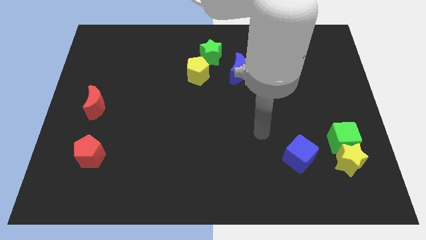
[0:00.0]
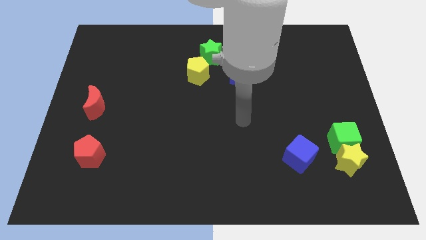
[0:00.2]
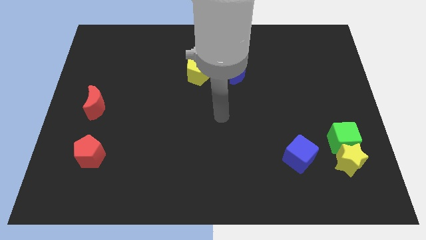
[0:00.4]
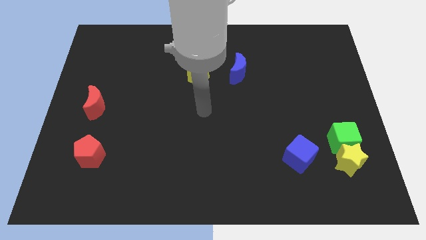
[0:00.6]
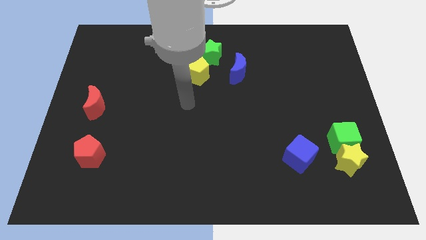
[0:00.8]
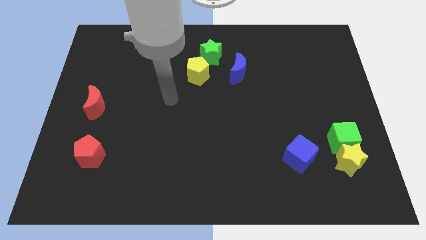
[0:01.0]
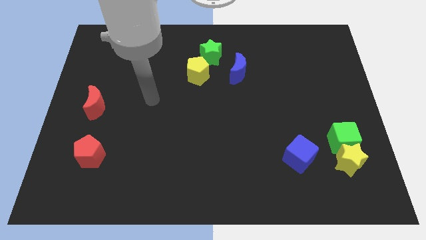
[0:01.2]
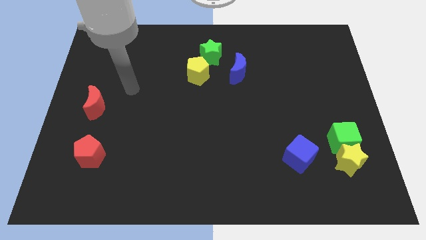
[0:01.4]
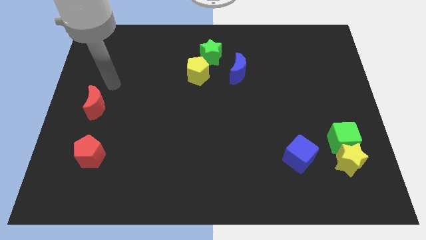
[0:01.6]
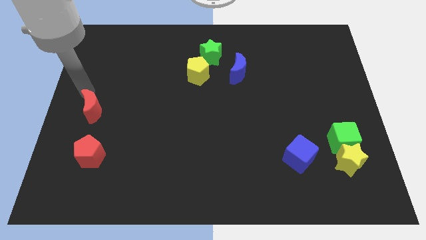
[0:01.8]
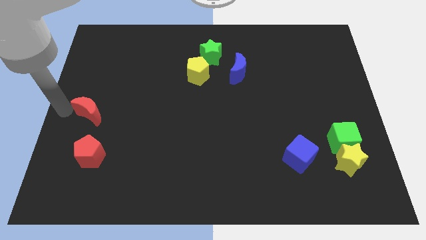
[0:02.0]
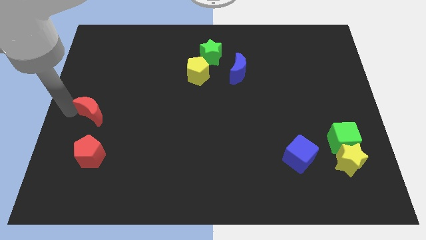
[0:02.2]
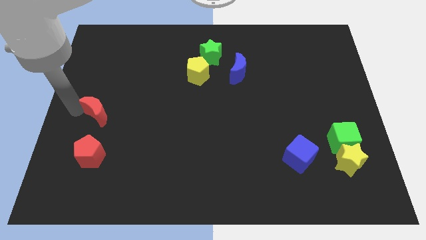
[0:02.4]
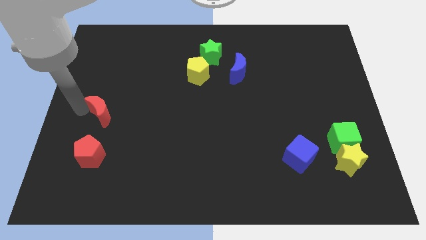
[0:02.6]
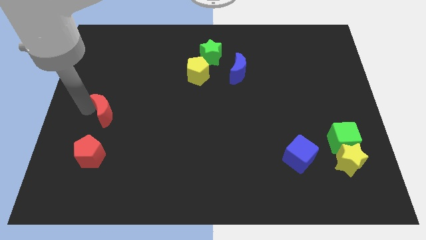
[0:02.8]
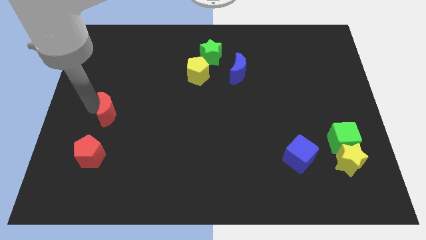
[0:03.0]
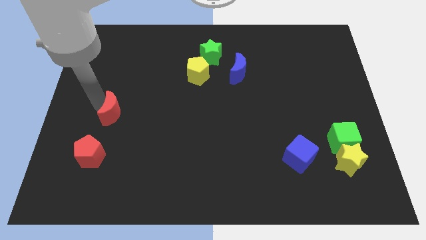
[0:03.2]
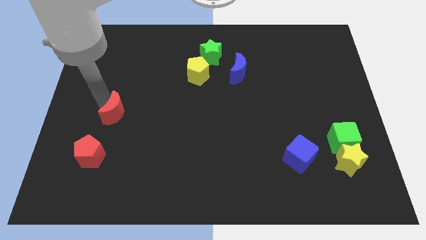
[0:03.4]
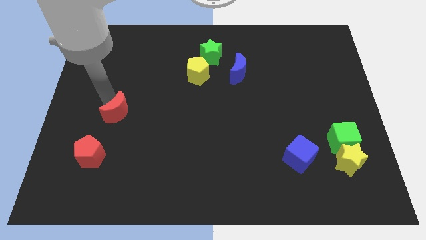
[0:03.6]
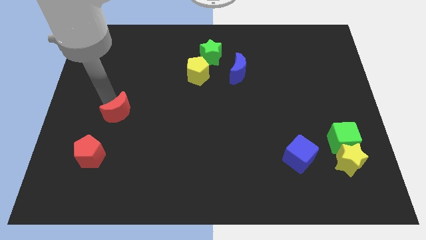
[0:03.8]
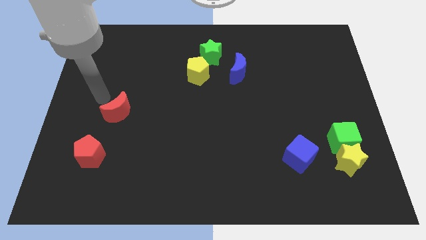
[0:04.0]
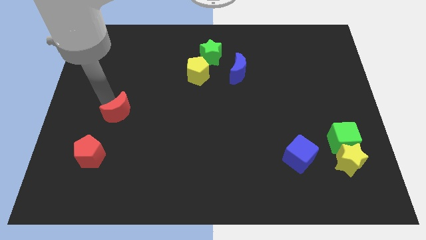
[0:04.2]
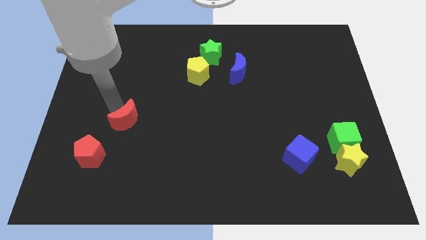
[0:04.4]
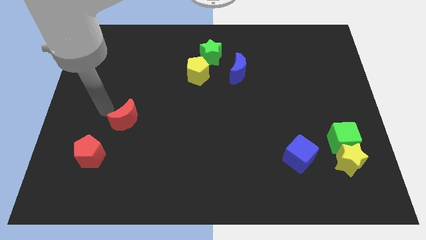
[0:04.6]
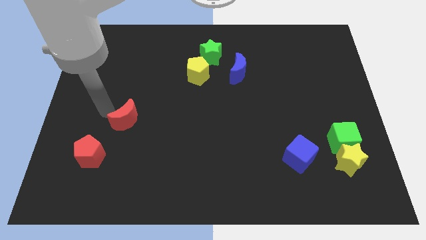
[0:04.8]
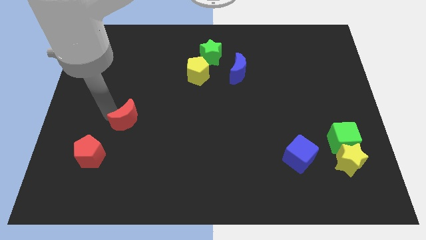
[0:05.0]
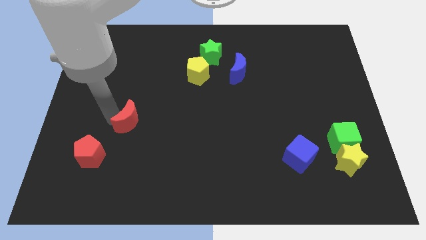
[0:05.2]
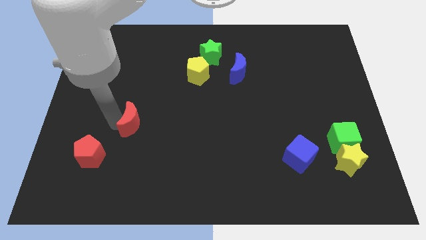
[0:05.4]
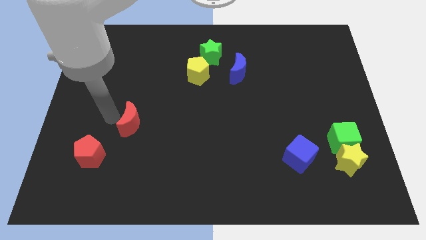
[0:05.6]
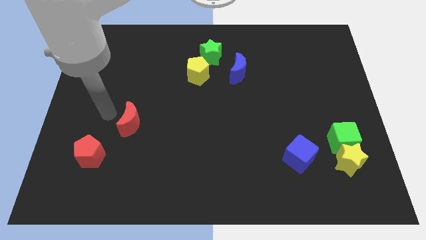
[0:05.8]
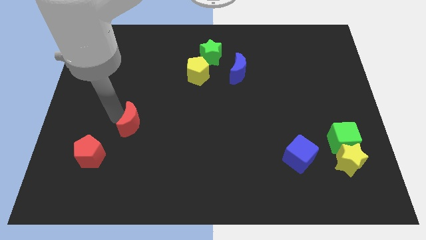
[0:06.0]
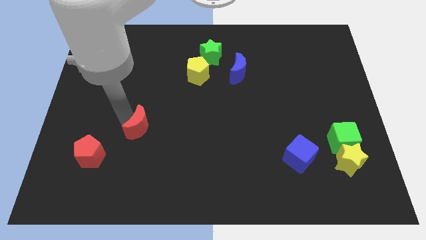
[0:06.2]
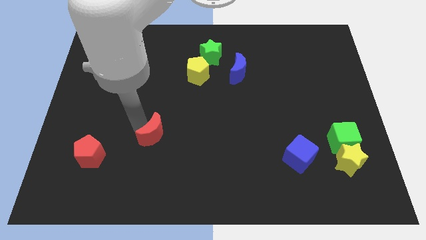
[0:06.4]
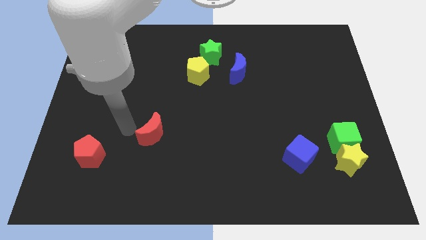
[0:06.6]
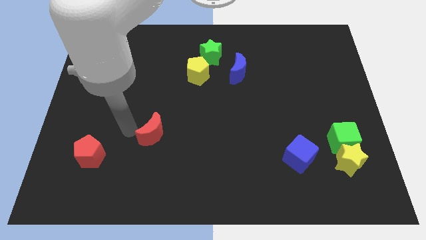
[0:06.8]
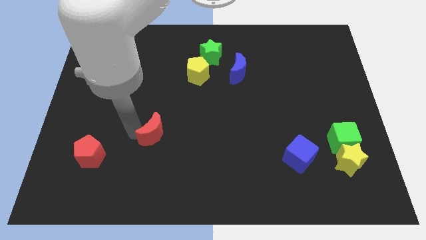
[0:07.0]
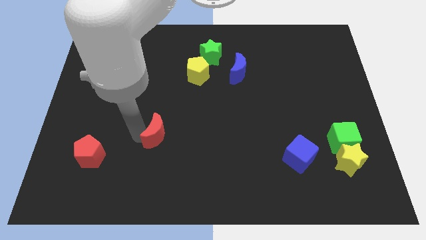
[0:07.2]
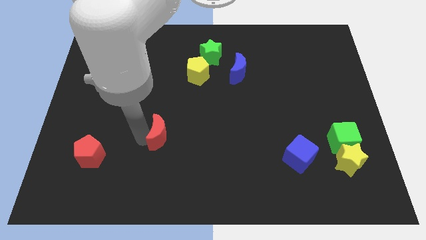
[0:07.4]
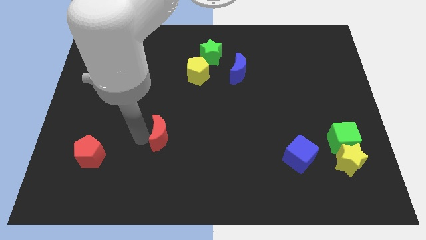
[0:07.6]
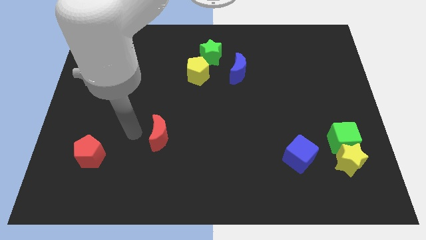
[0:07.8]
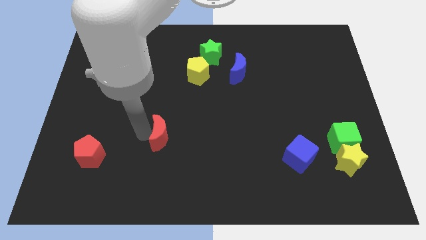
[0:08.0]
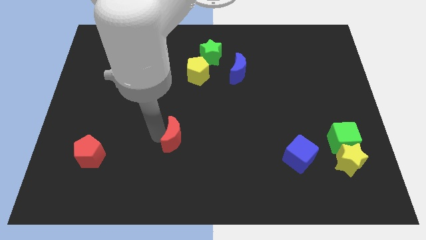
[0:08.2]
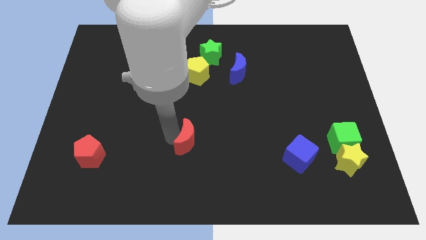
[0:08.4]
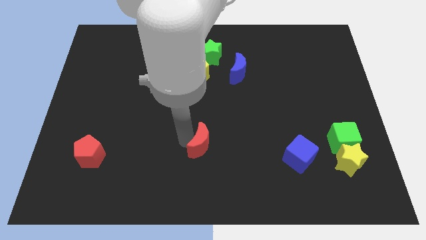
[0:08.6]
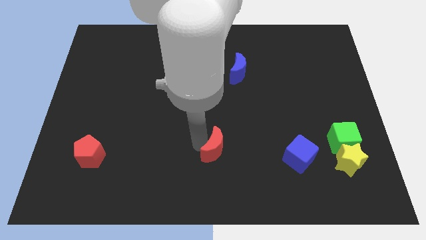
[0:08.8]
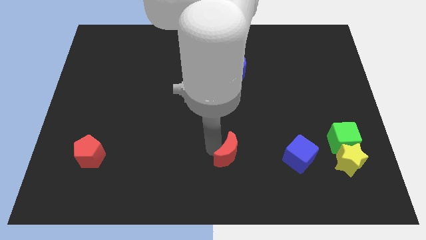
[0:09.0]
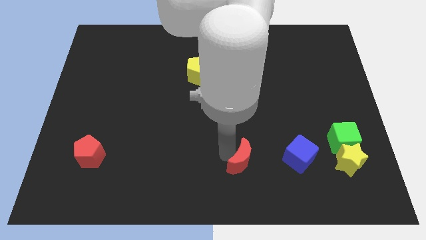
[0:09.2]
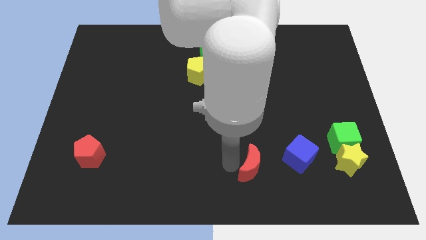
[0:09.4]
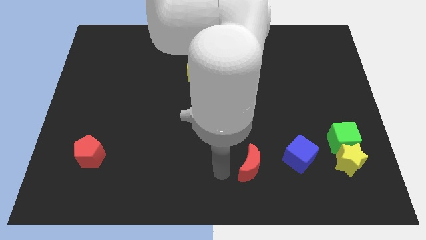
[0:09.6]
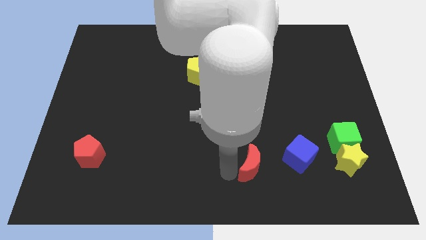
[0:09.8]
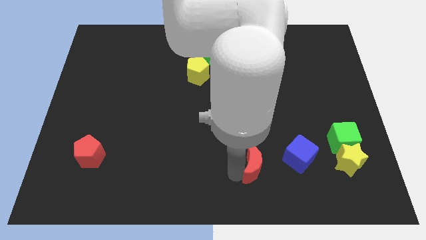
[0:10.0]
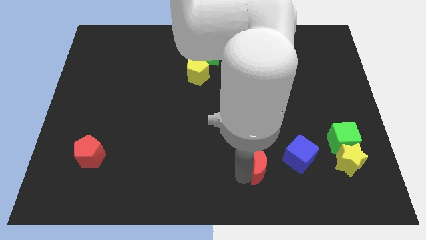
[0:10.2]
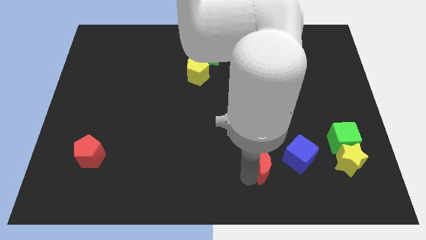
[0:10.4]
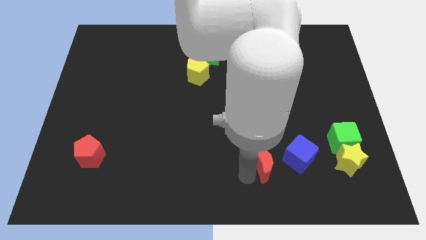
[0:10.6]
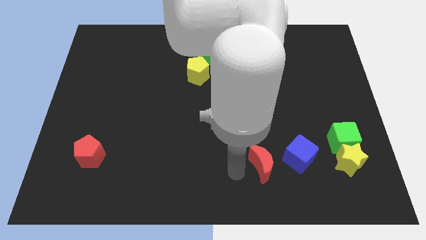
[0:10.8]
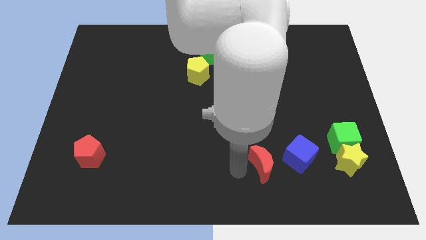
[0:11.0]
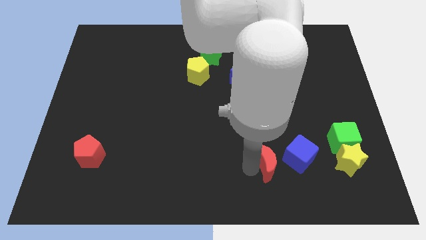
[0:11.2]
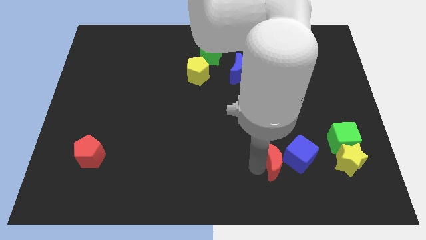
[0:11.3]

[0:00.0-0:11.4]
move the red moon to the left of the yellow star

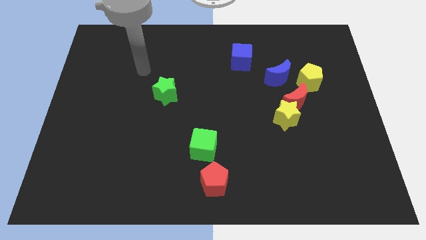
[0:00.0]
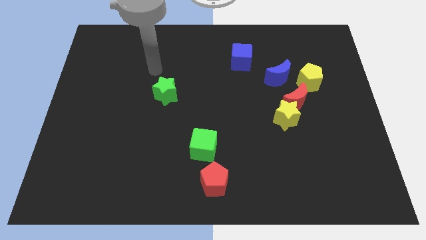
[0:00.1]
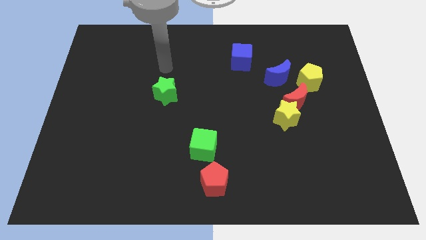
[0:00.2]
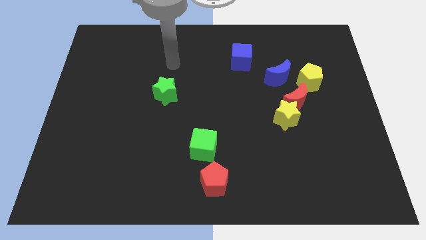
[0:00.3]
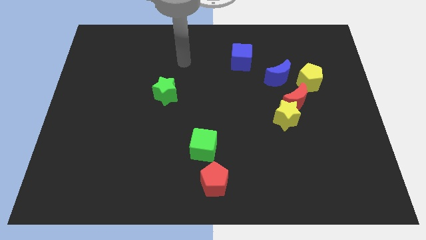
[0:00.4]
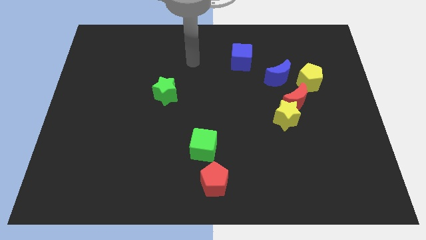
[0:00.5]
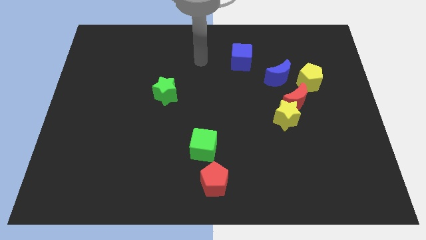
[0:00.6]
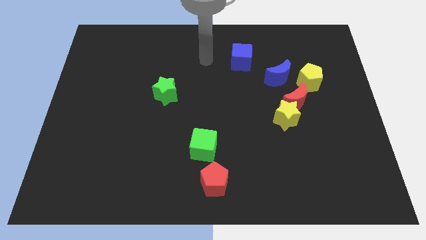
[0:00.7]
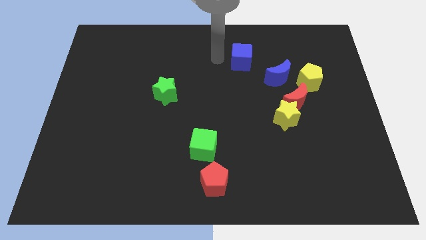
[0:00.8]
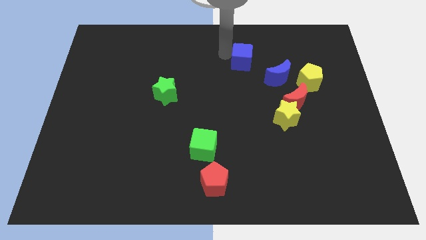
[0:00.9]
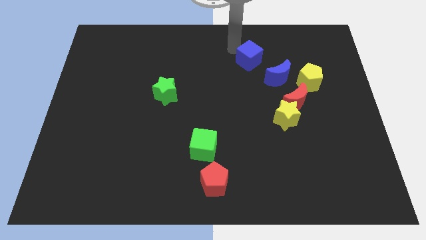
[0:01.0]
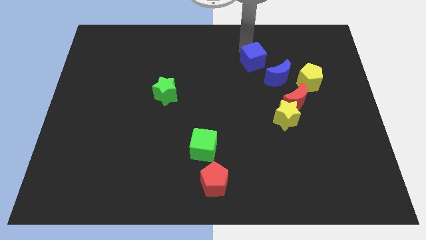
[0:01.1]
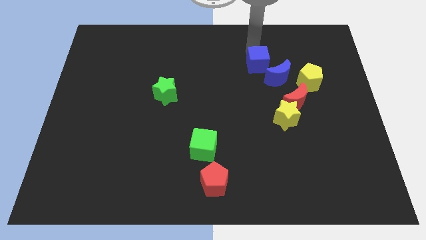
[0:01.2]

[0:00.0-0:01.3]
put the blue moon to the bottom of the blue cube
